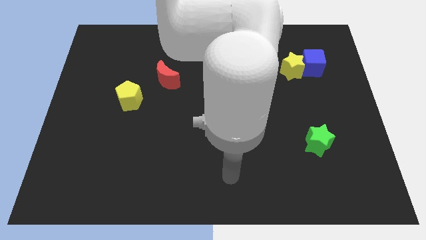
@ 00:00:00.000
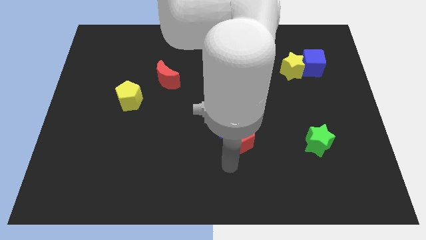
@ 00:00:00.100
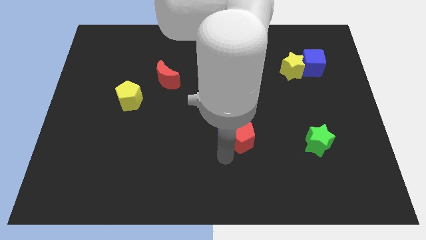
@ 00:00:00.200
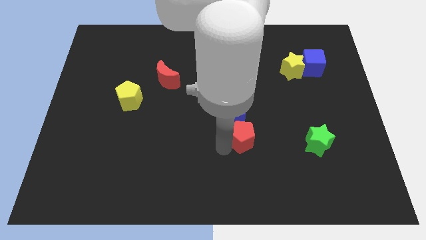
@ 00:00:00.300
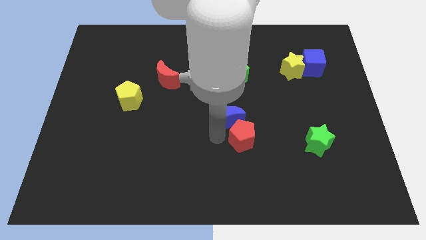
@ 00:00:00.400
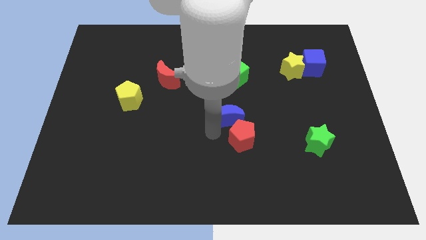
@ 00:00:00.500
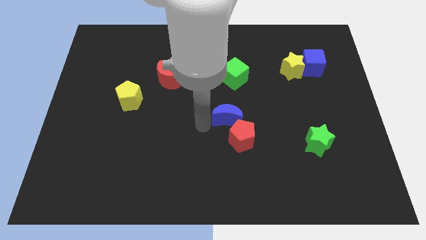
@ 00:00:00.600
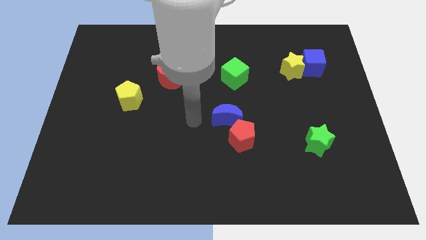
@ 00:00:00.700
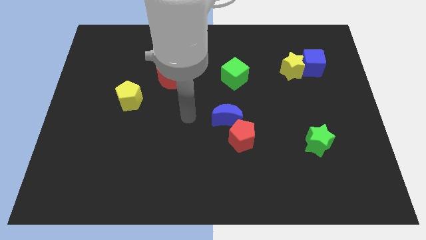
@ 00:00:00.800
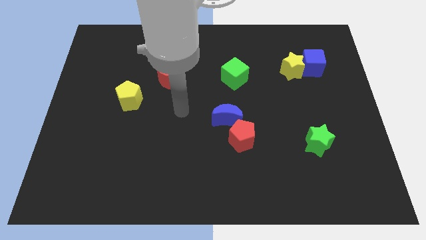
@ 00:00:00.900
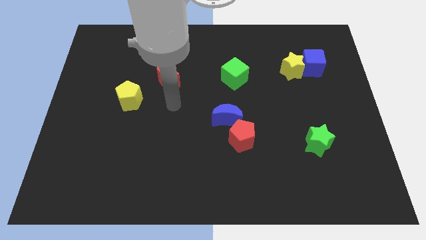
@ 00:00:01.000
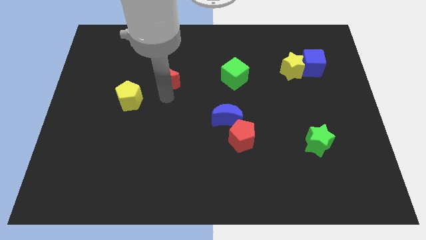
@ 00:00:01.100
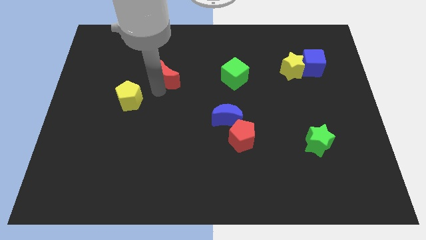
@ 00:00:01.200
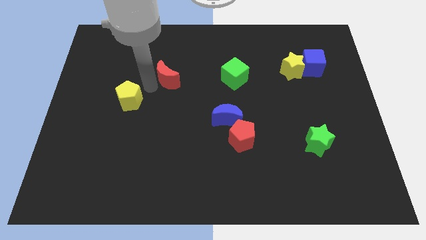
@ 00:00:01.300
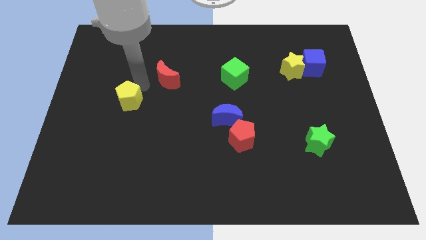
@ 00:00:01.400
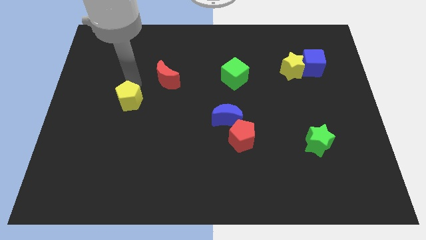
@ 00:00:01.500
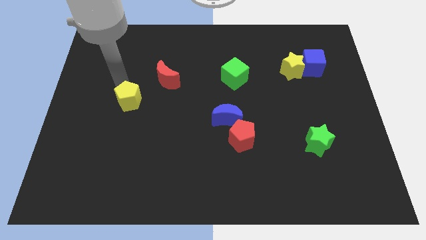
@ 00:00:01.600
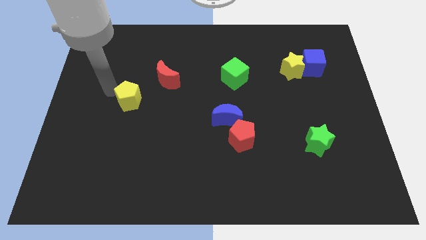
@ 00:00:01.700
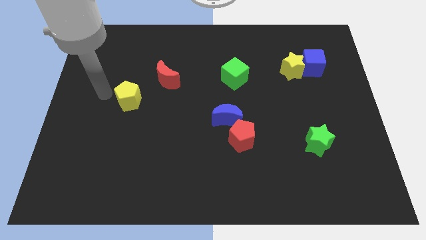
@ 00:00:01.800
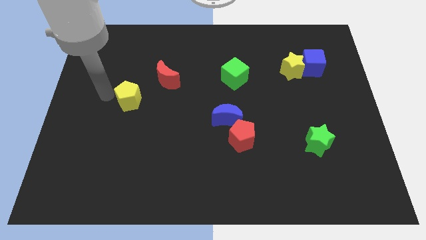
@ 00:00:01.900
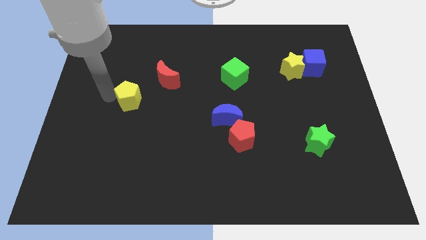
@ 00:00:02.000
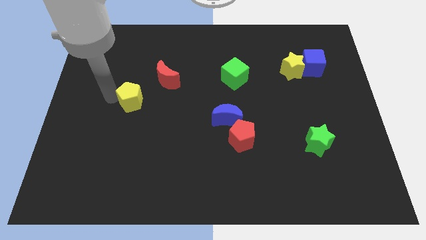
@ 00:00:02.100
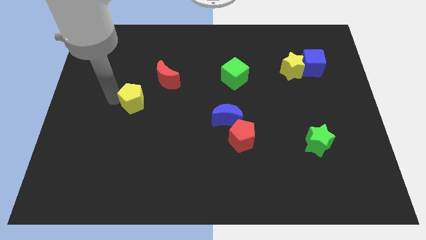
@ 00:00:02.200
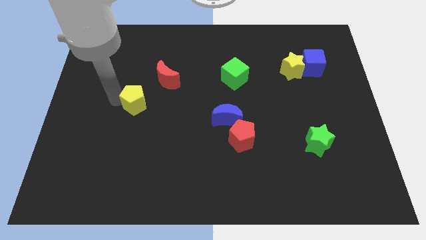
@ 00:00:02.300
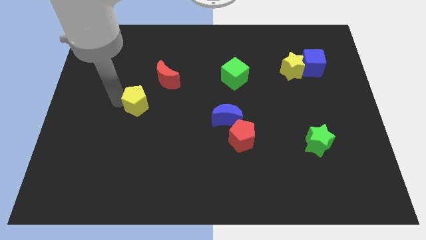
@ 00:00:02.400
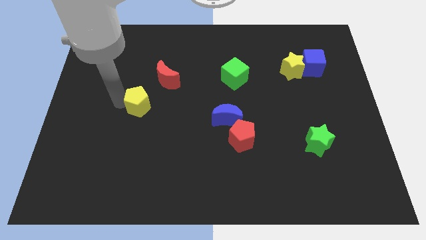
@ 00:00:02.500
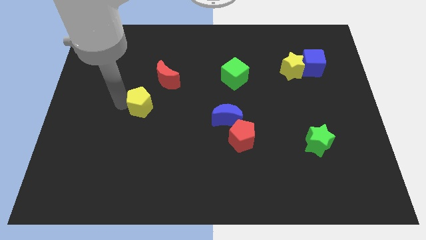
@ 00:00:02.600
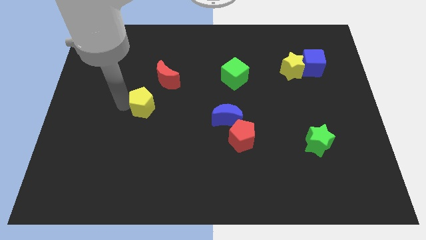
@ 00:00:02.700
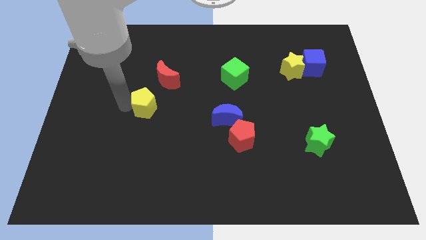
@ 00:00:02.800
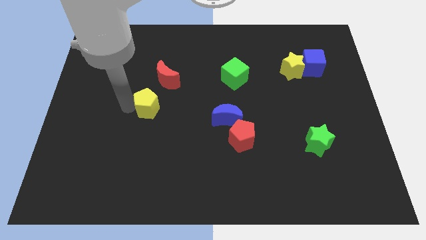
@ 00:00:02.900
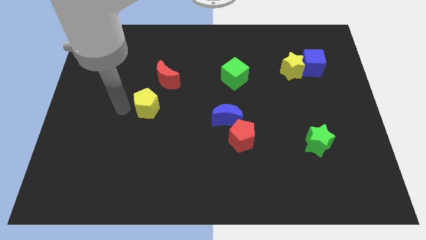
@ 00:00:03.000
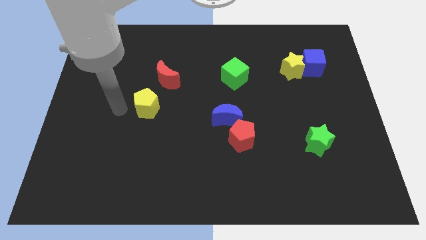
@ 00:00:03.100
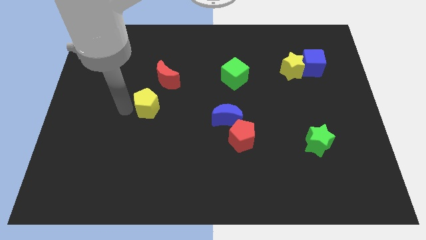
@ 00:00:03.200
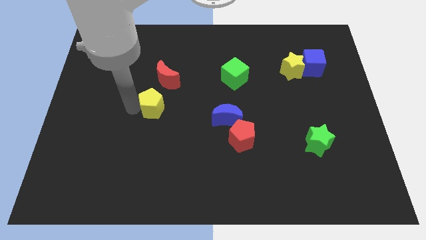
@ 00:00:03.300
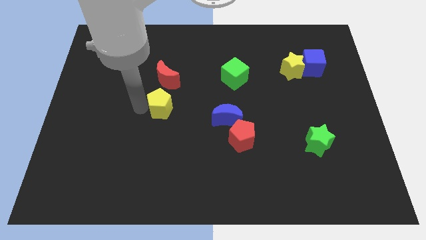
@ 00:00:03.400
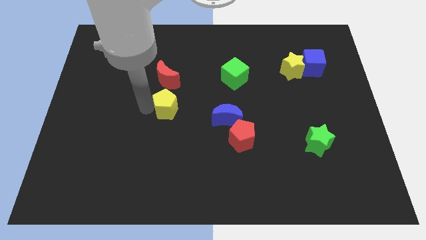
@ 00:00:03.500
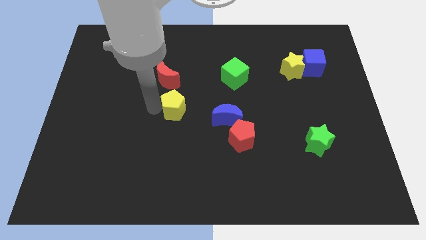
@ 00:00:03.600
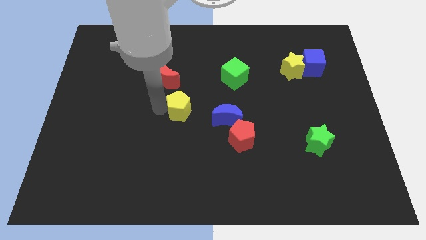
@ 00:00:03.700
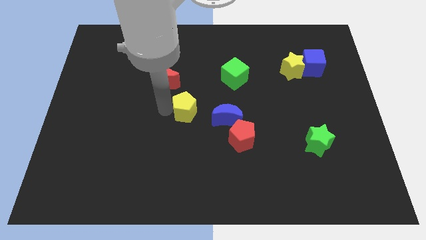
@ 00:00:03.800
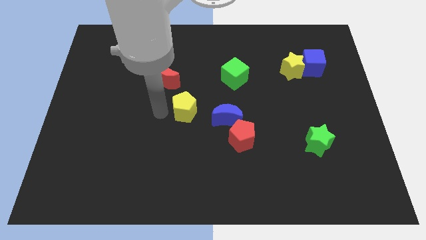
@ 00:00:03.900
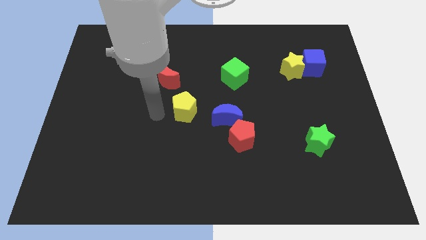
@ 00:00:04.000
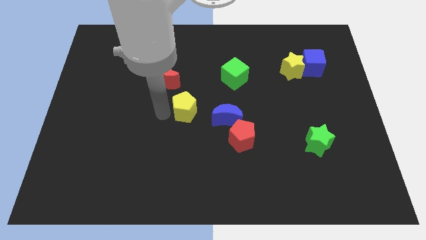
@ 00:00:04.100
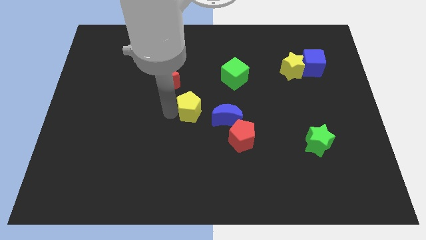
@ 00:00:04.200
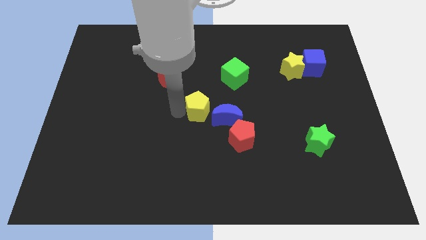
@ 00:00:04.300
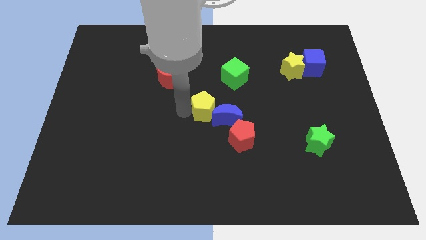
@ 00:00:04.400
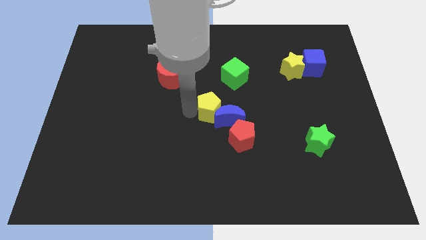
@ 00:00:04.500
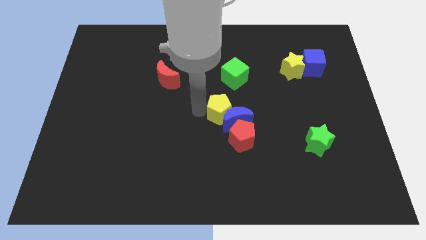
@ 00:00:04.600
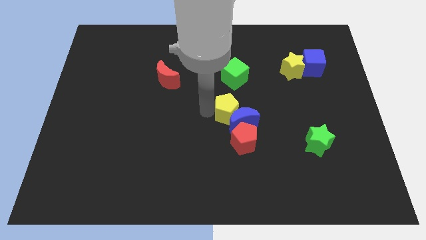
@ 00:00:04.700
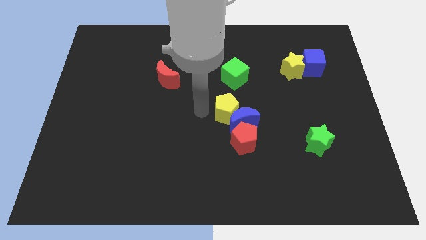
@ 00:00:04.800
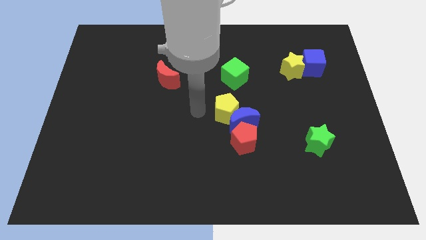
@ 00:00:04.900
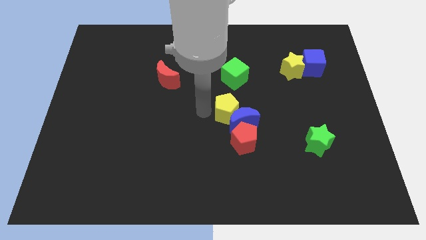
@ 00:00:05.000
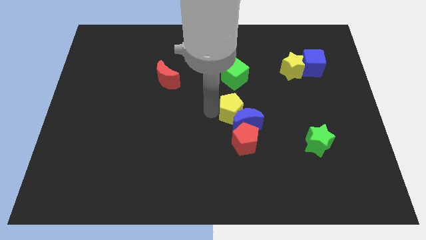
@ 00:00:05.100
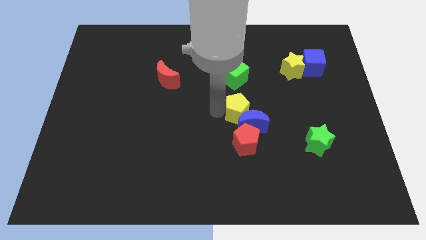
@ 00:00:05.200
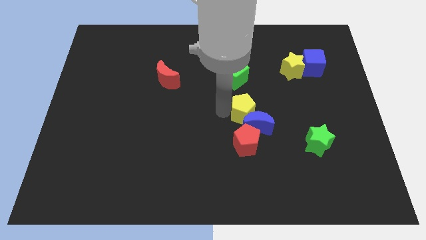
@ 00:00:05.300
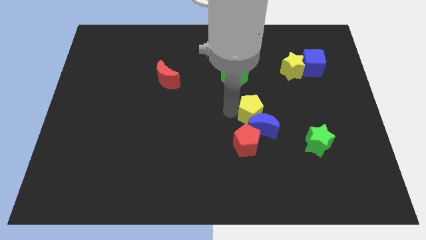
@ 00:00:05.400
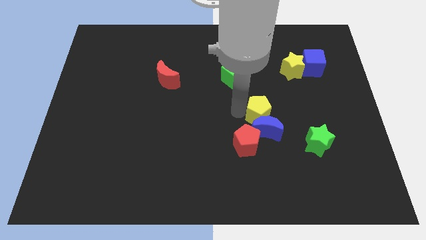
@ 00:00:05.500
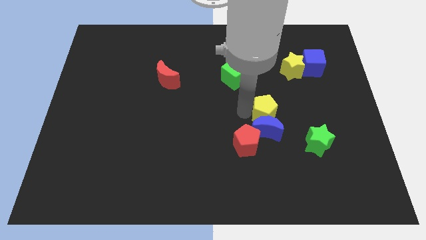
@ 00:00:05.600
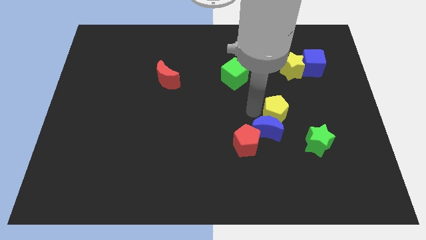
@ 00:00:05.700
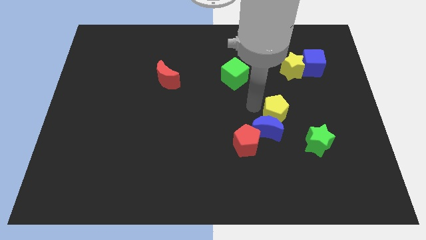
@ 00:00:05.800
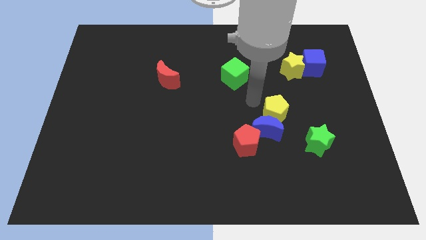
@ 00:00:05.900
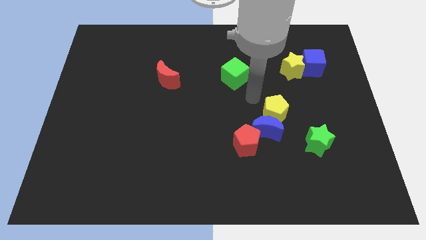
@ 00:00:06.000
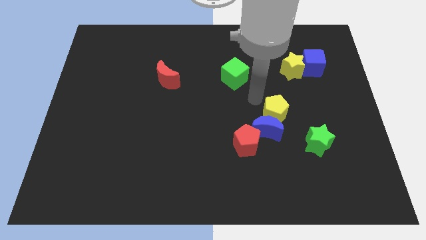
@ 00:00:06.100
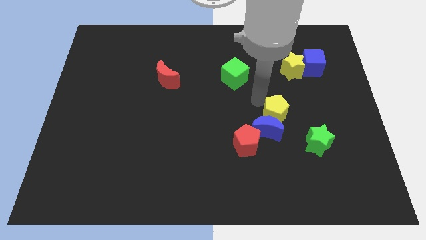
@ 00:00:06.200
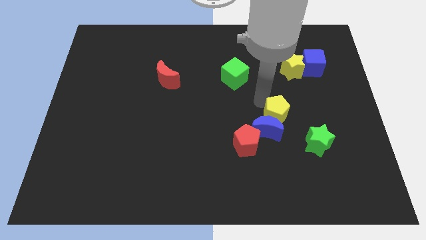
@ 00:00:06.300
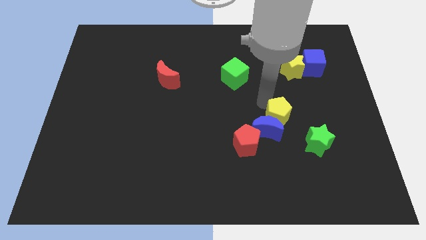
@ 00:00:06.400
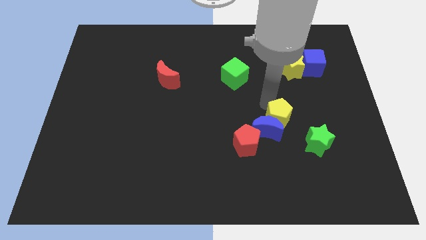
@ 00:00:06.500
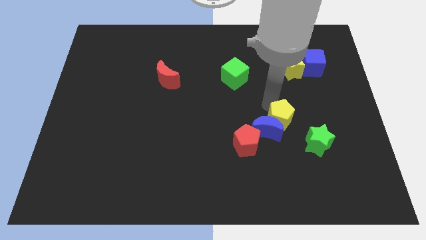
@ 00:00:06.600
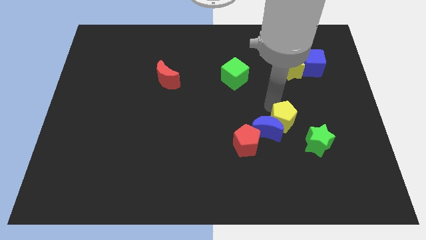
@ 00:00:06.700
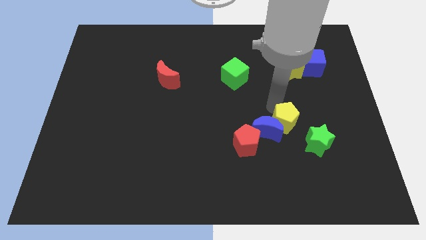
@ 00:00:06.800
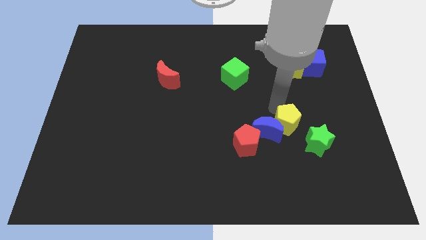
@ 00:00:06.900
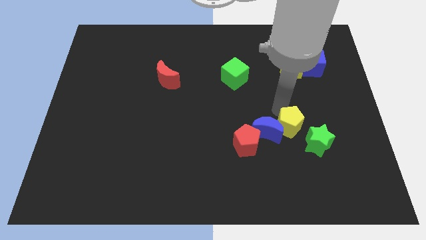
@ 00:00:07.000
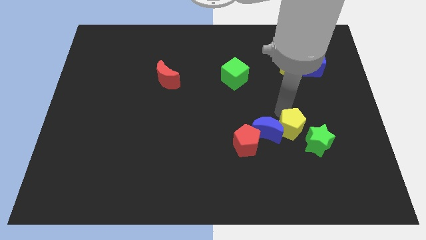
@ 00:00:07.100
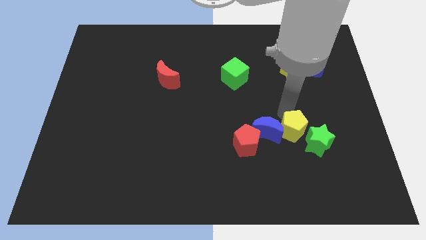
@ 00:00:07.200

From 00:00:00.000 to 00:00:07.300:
move the yellow pentagon to the green star

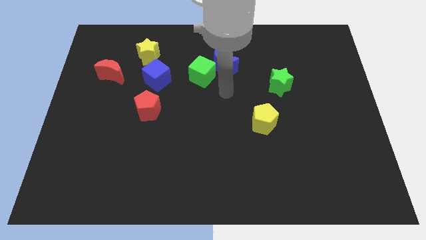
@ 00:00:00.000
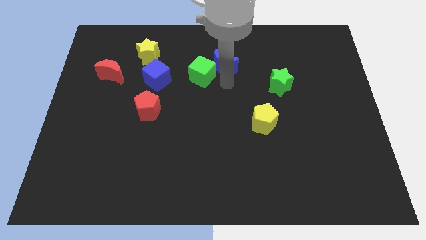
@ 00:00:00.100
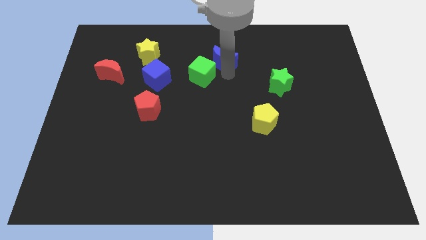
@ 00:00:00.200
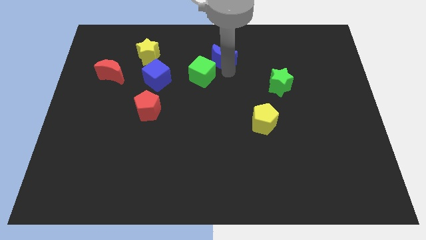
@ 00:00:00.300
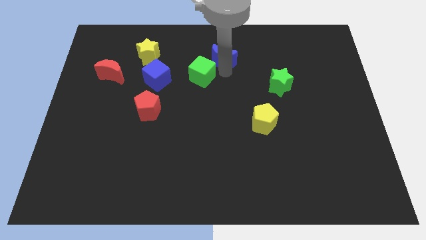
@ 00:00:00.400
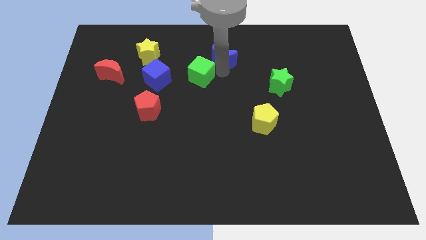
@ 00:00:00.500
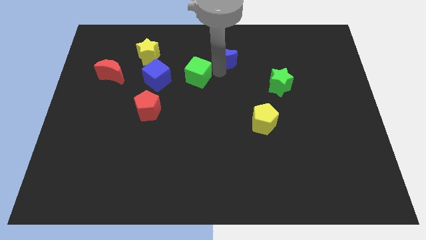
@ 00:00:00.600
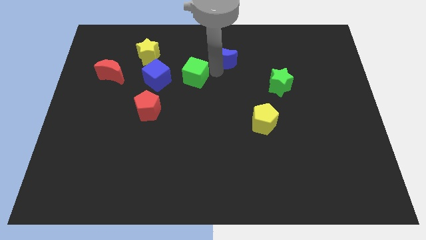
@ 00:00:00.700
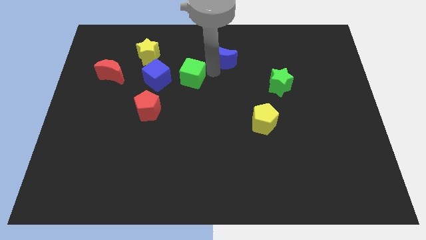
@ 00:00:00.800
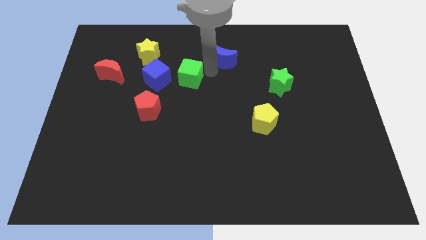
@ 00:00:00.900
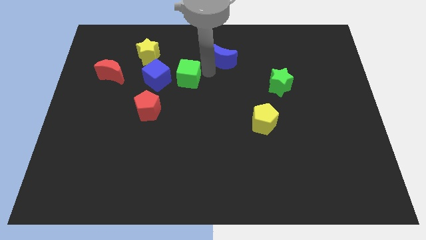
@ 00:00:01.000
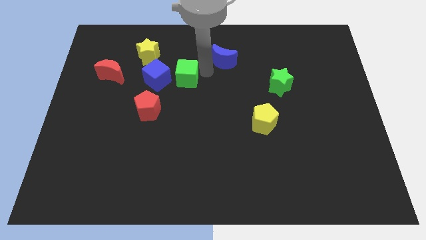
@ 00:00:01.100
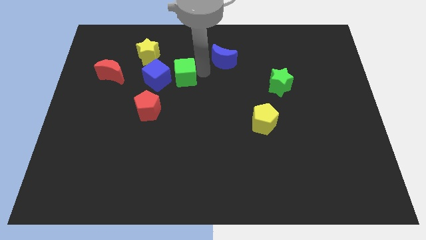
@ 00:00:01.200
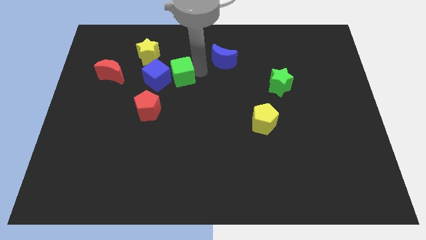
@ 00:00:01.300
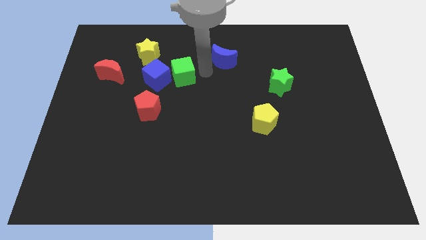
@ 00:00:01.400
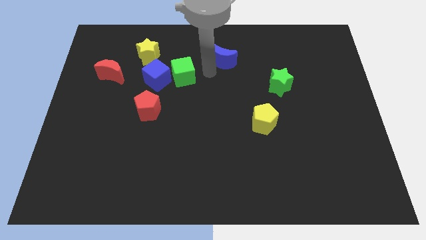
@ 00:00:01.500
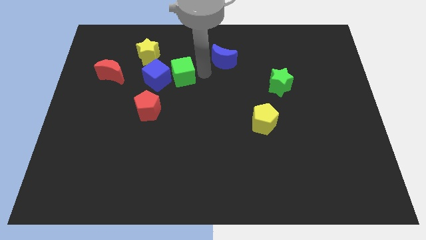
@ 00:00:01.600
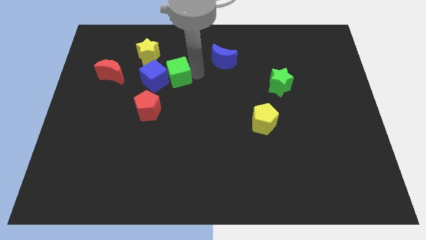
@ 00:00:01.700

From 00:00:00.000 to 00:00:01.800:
slide the green cube to the blue cube
